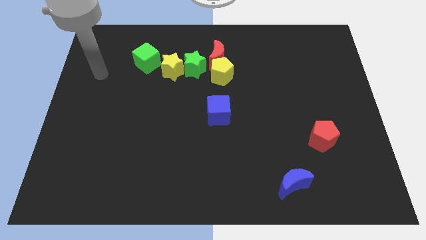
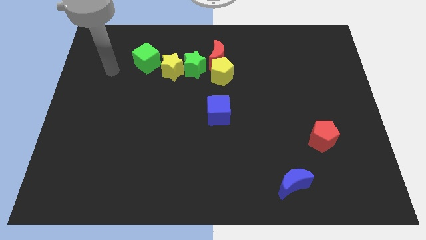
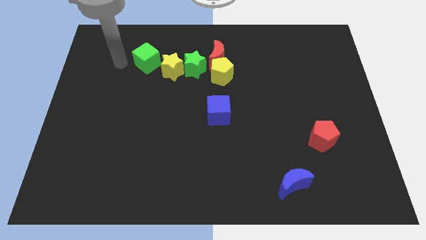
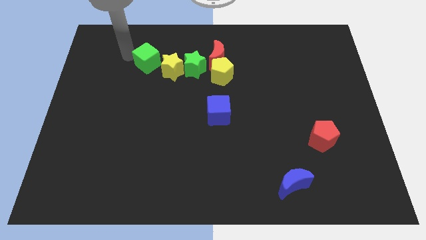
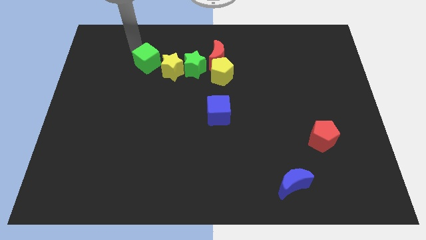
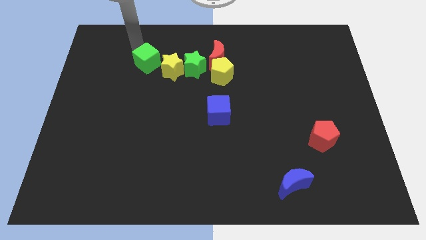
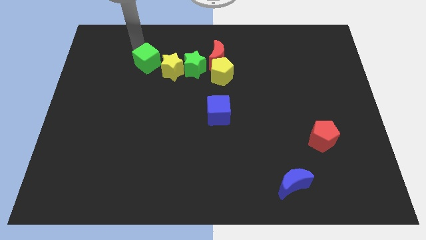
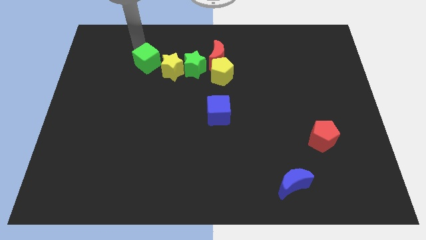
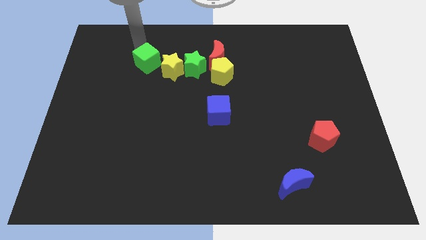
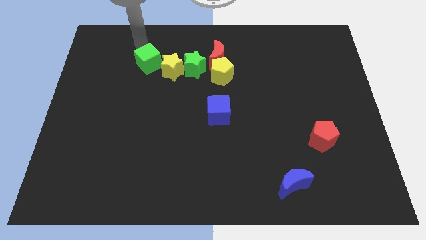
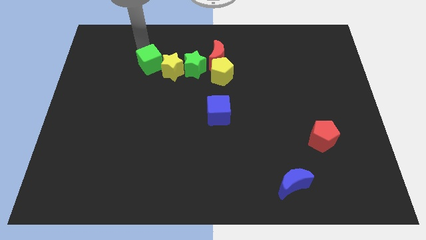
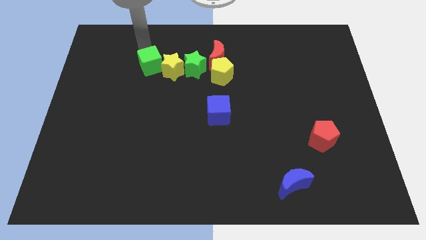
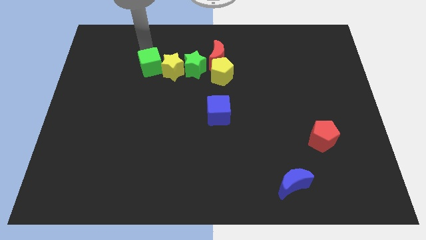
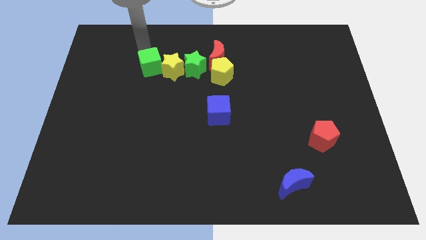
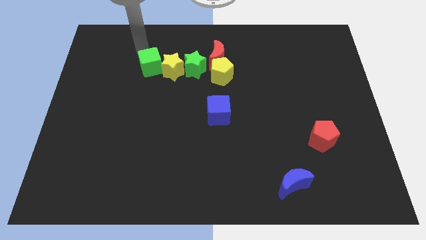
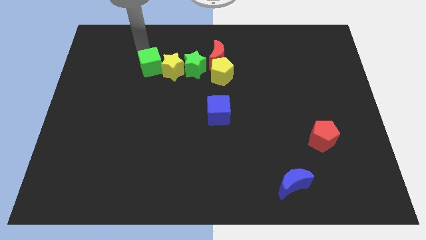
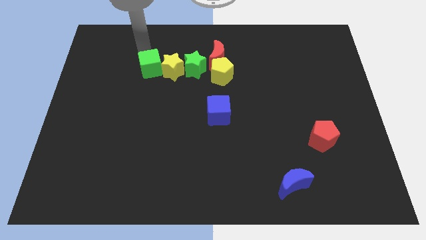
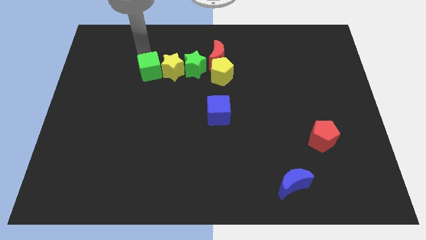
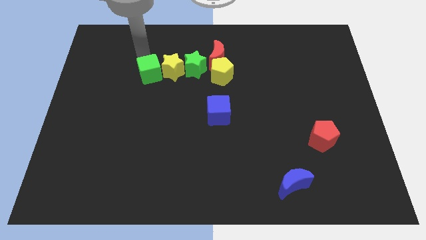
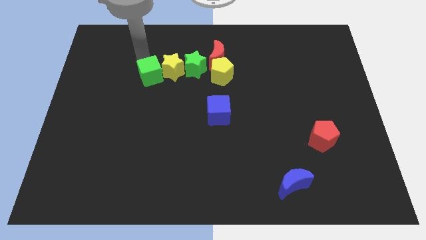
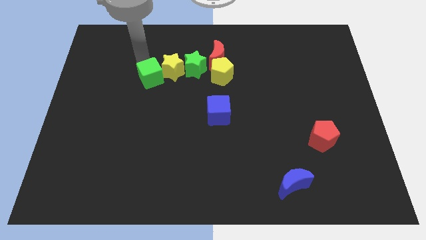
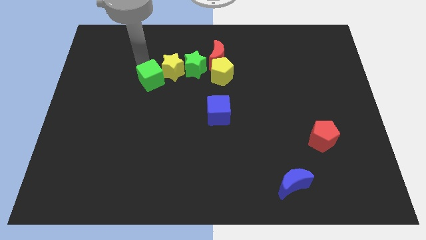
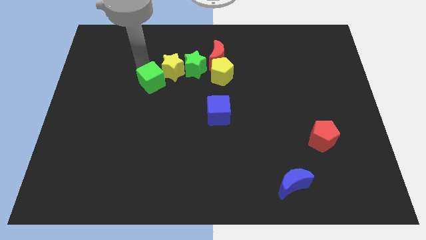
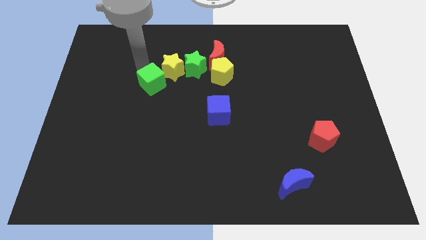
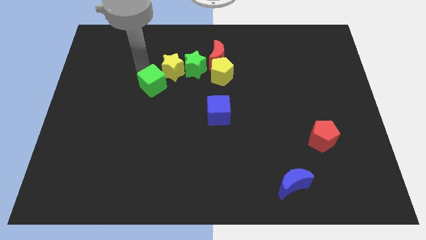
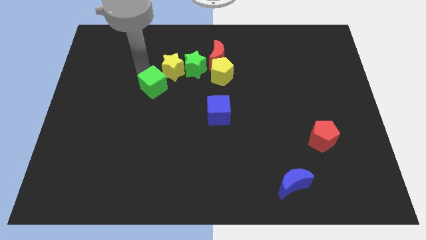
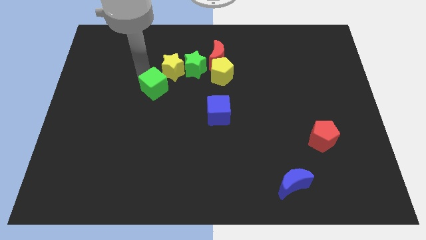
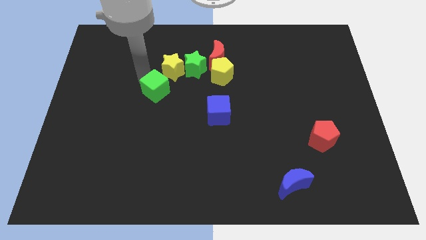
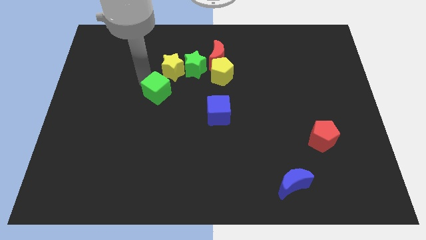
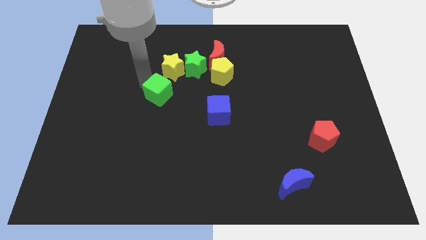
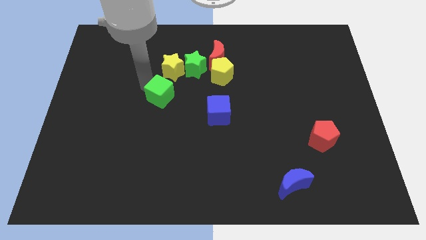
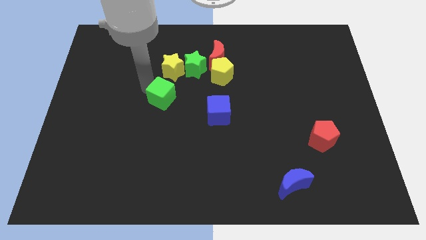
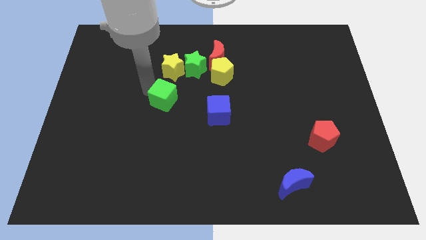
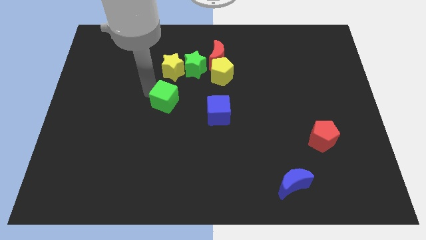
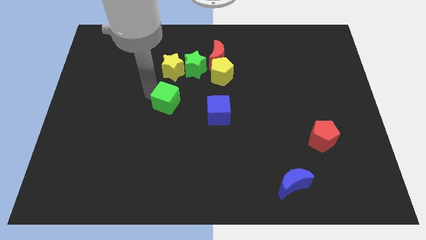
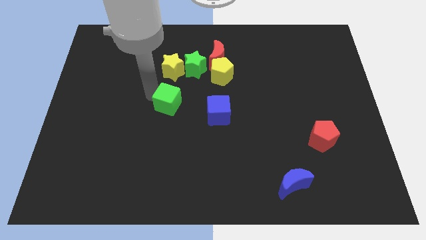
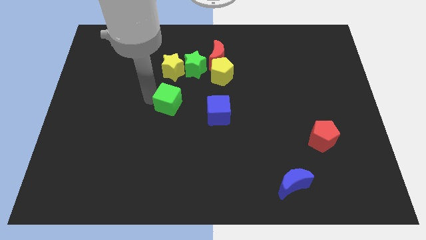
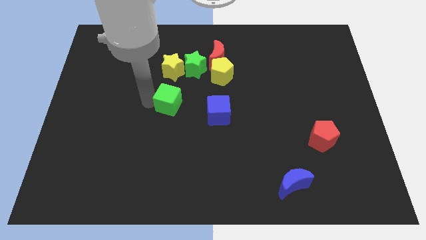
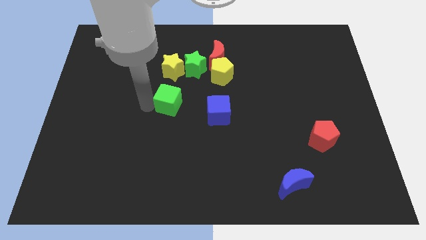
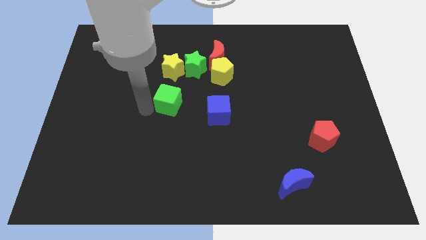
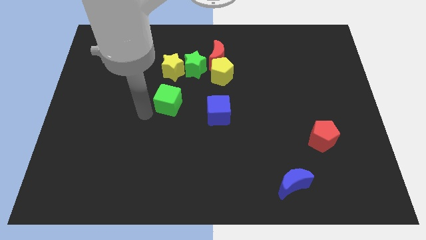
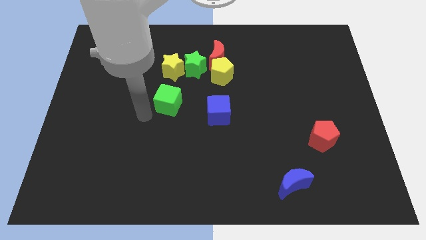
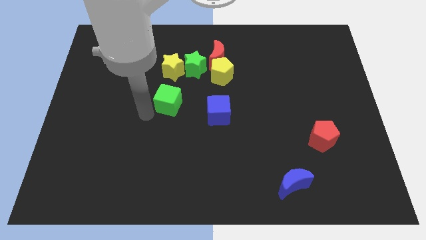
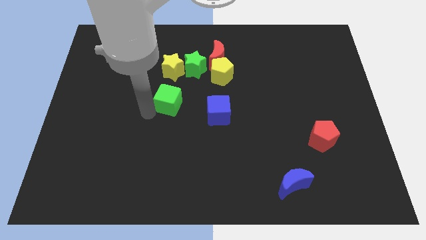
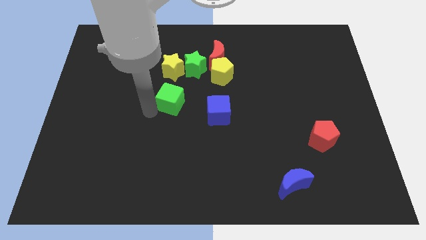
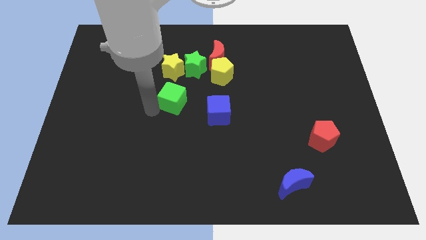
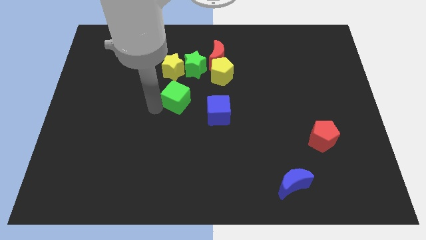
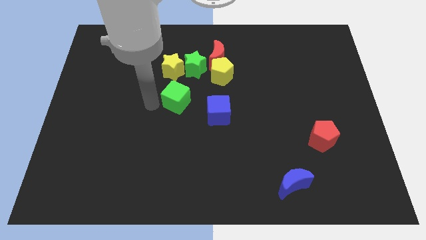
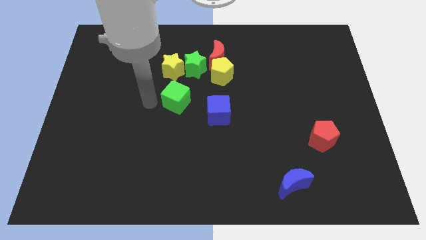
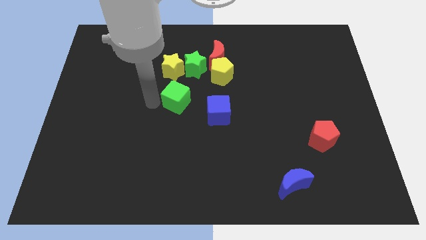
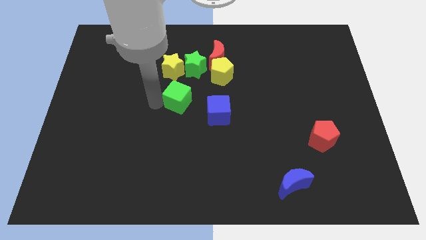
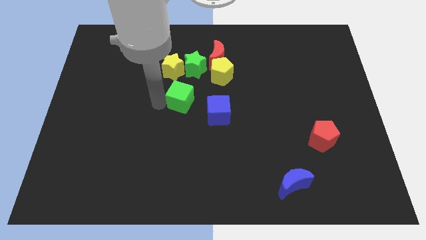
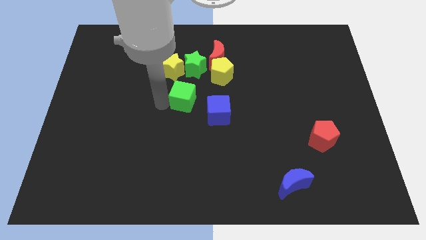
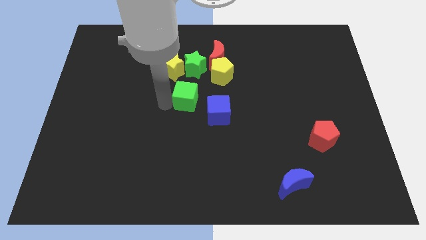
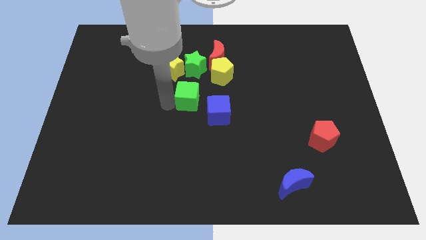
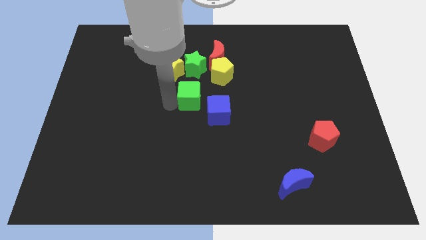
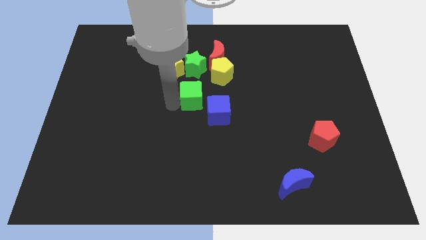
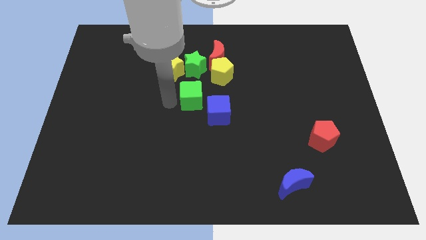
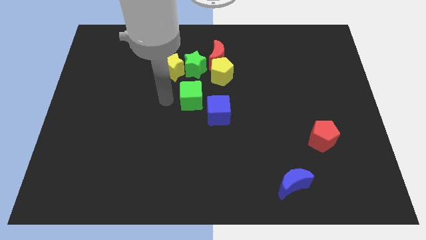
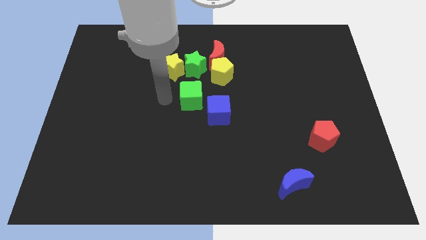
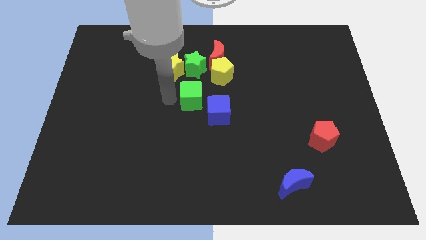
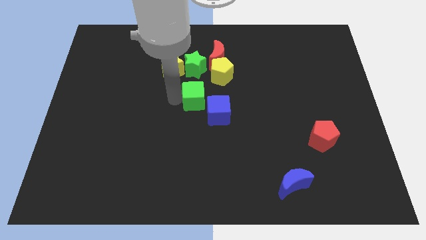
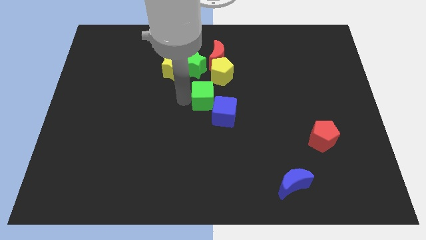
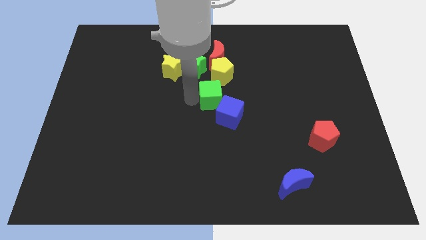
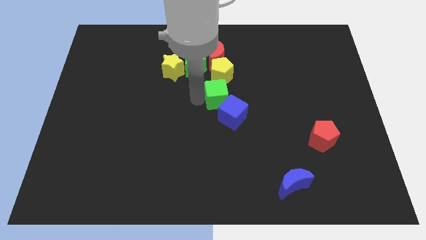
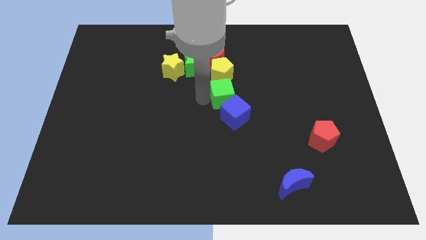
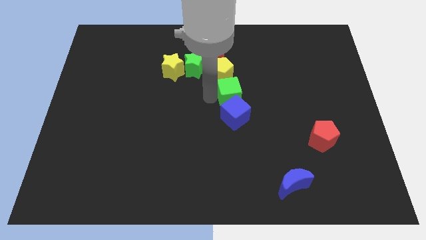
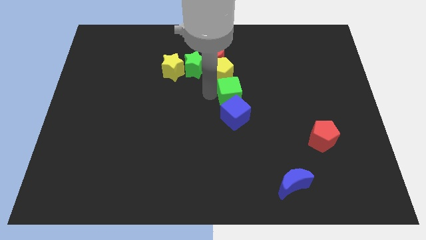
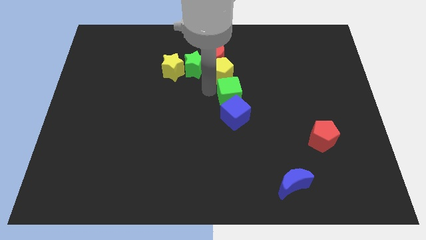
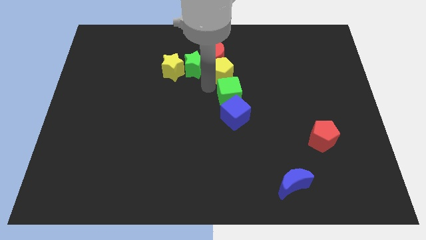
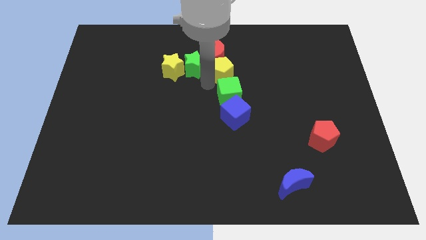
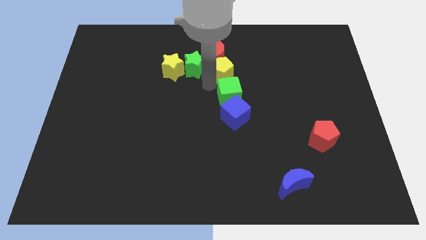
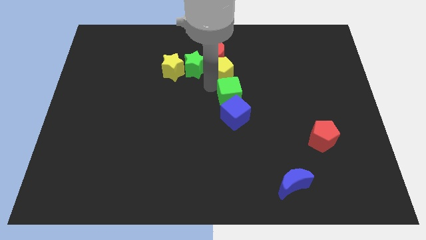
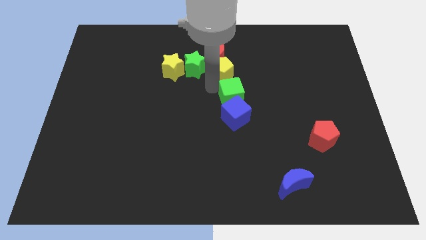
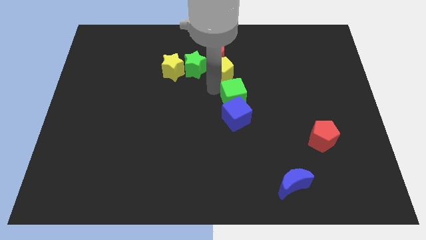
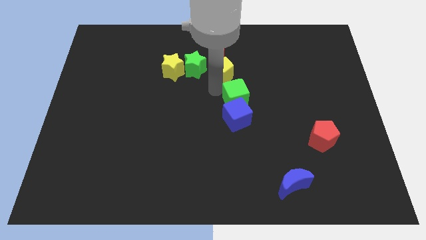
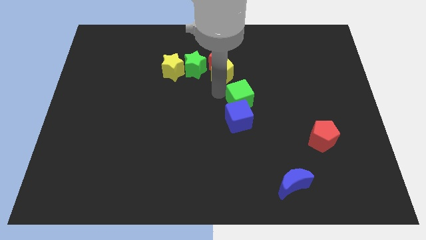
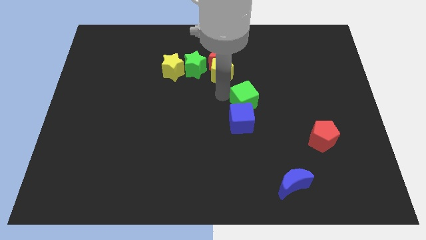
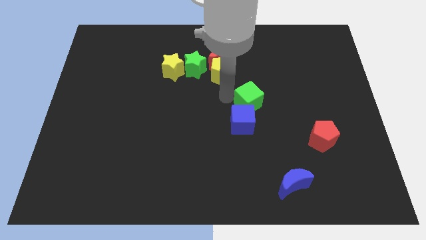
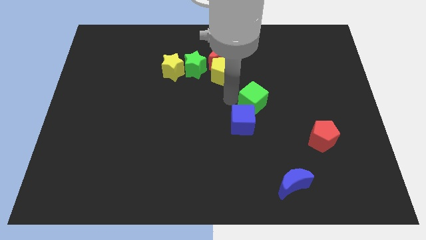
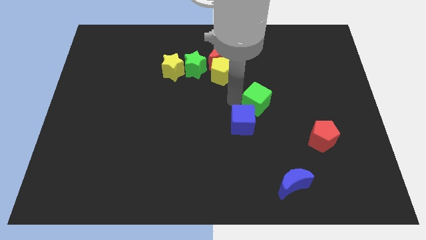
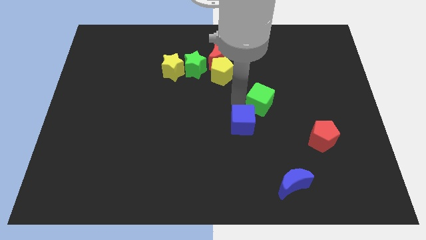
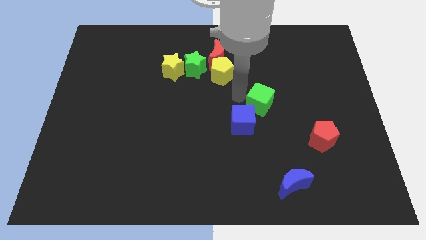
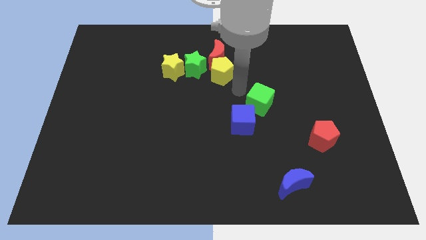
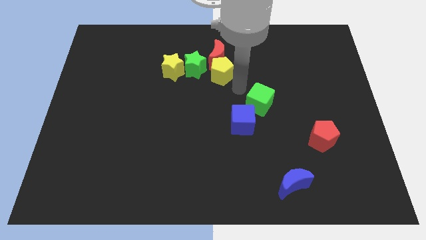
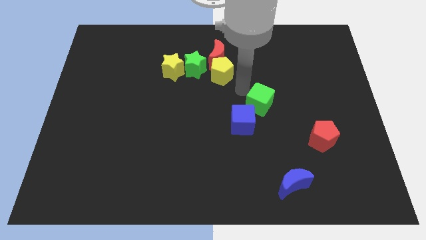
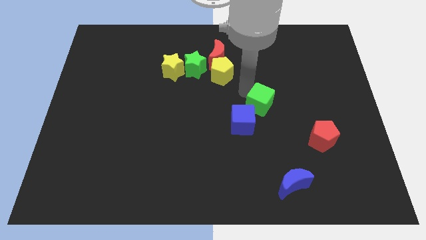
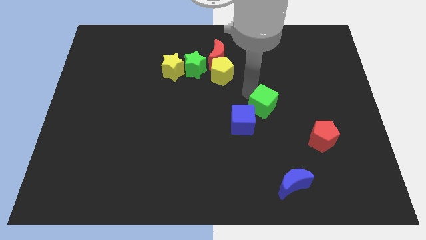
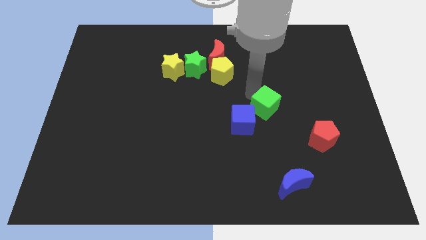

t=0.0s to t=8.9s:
slide the green cube to the right of the blue cube
